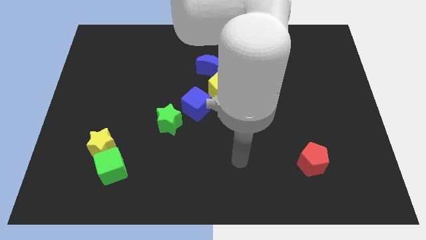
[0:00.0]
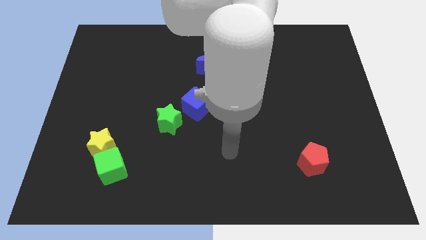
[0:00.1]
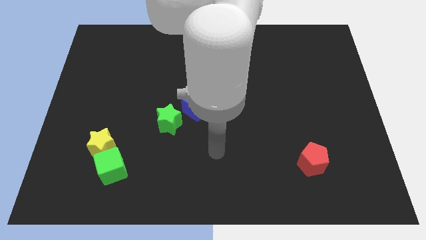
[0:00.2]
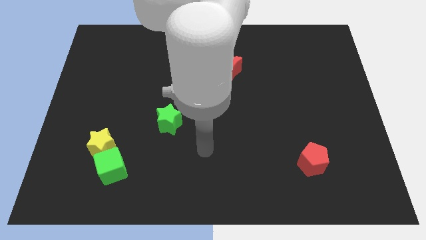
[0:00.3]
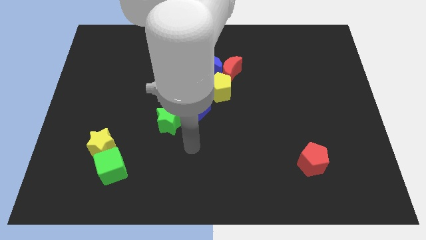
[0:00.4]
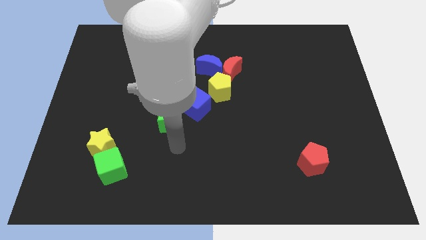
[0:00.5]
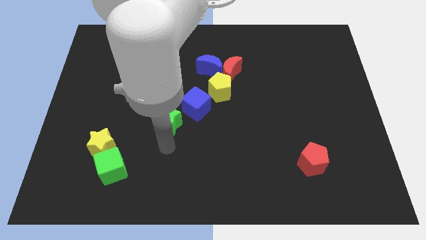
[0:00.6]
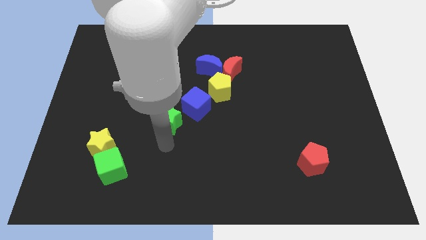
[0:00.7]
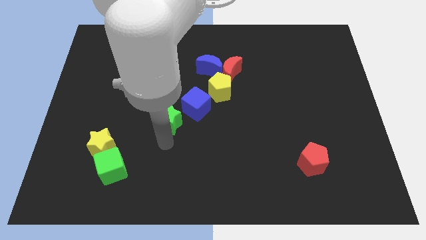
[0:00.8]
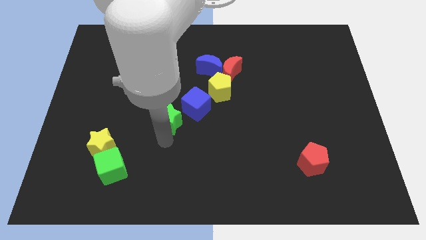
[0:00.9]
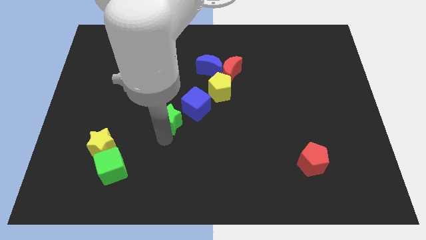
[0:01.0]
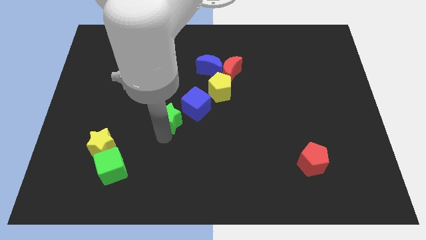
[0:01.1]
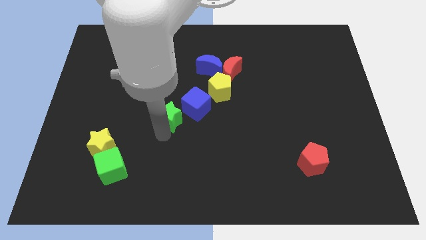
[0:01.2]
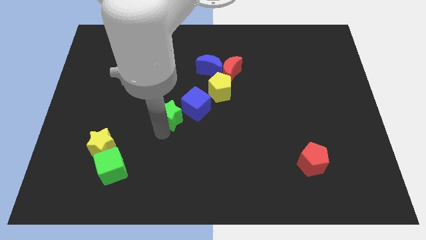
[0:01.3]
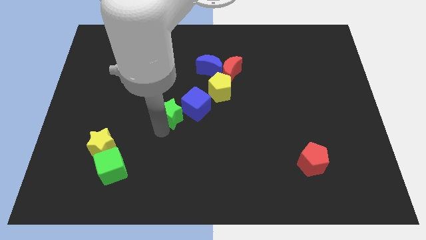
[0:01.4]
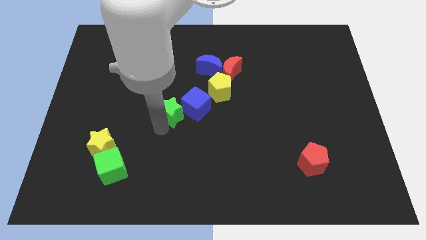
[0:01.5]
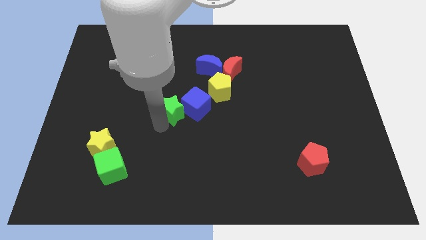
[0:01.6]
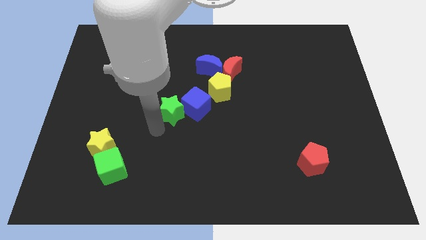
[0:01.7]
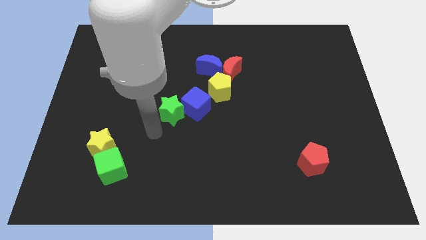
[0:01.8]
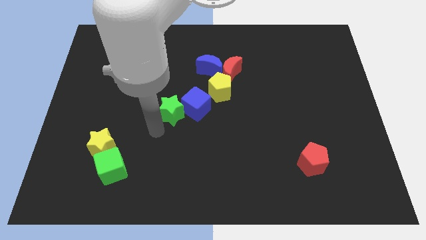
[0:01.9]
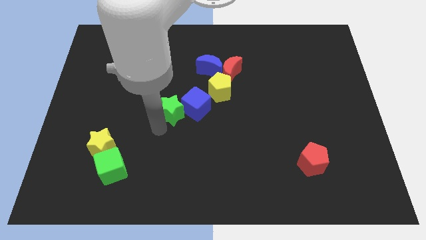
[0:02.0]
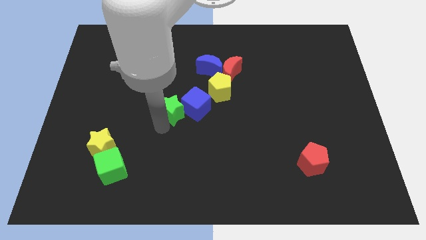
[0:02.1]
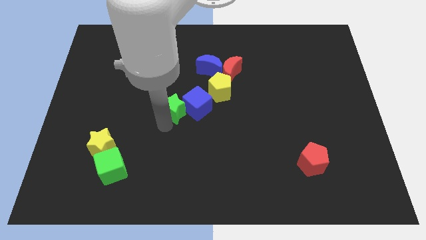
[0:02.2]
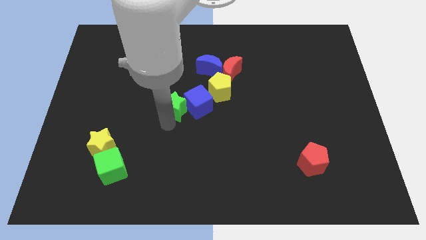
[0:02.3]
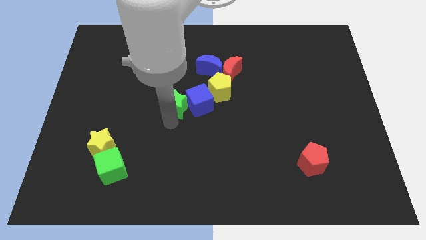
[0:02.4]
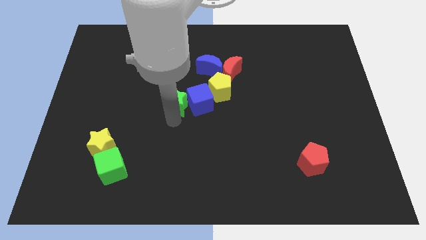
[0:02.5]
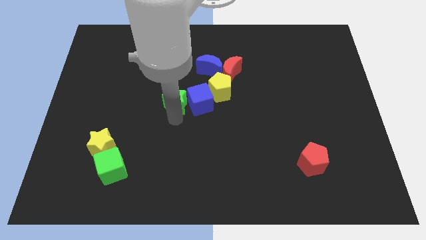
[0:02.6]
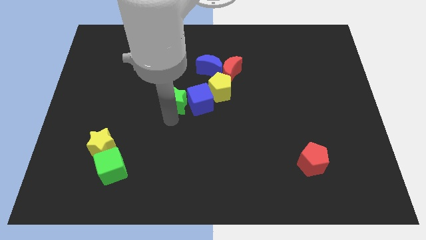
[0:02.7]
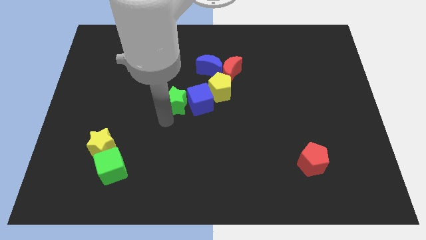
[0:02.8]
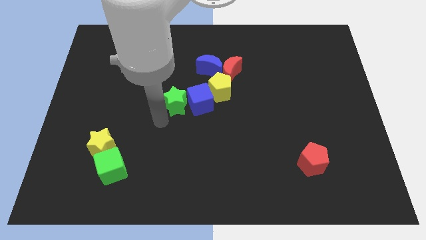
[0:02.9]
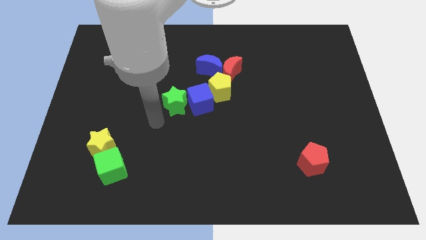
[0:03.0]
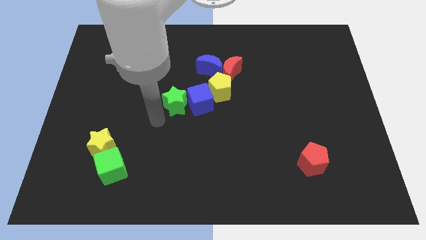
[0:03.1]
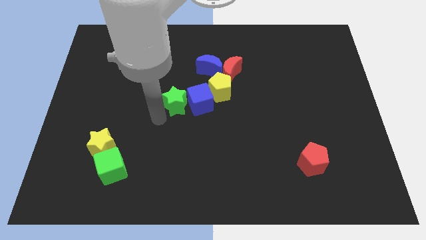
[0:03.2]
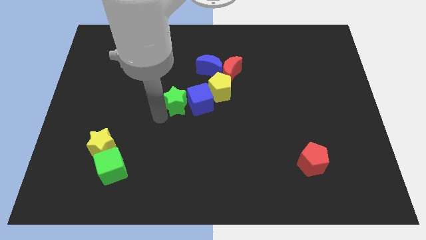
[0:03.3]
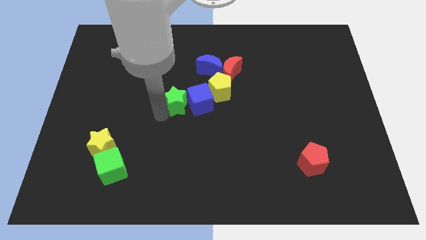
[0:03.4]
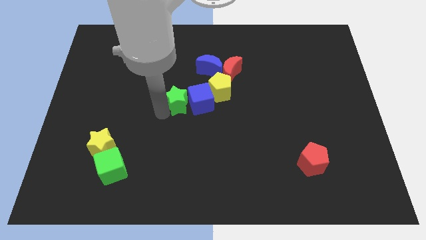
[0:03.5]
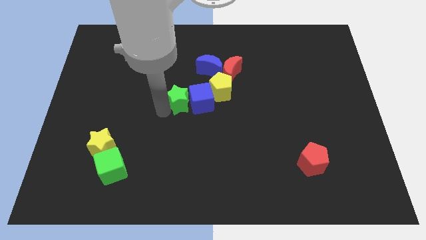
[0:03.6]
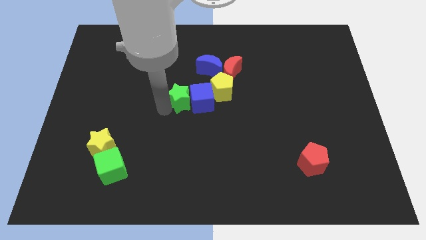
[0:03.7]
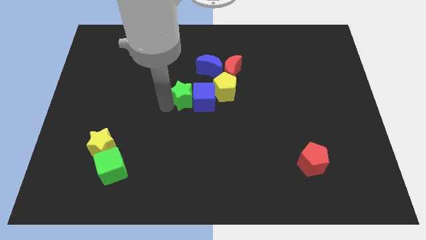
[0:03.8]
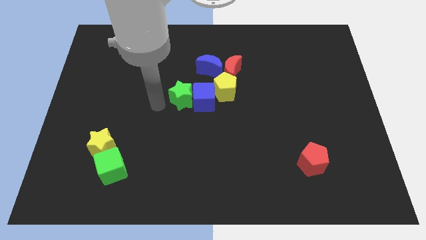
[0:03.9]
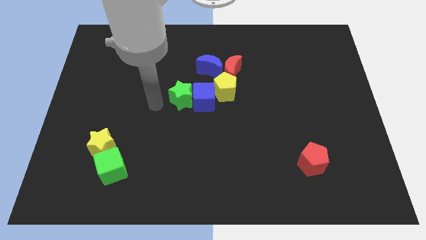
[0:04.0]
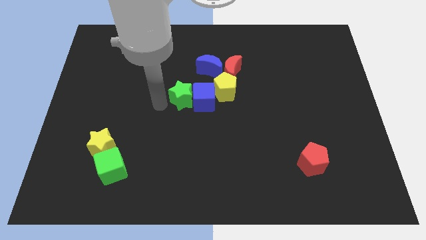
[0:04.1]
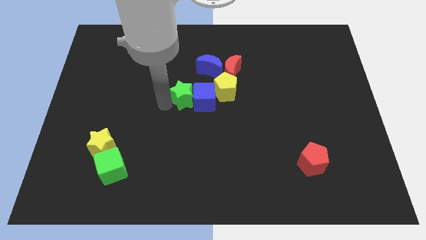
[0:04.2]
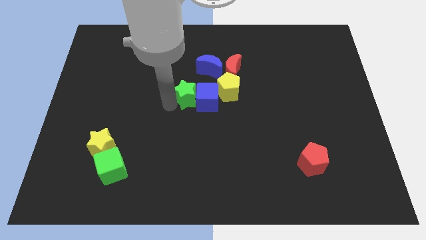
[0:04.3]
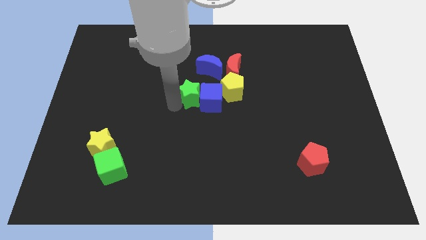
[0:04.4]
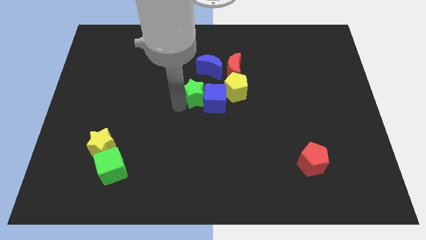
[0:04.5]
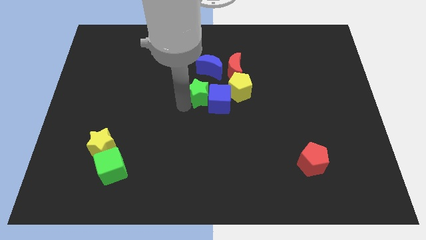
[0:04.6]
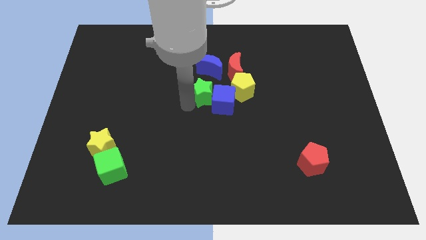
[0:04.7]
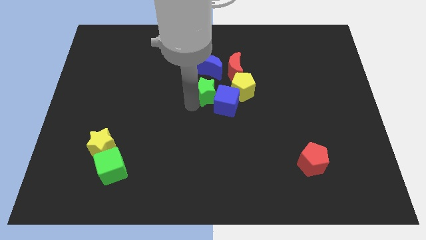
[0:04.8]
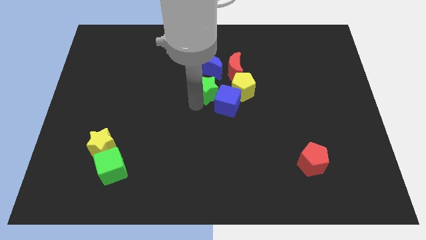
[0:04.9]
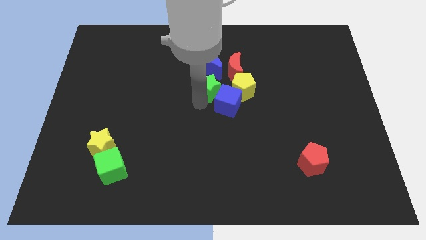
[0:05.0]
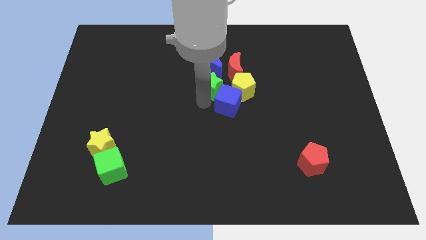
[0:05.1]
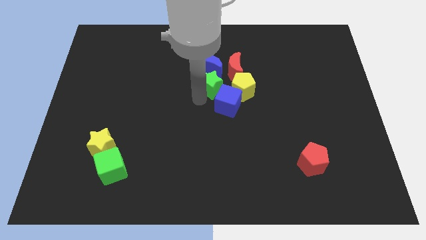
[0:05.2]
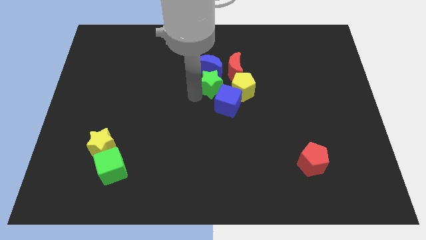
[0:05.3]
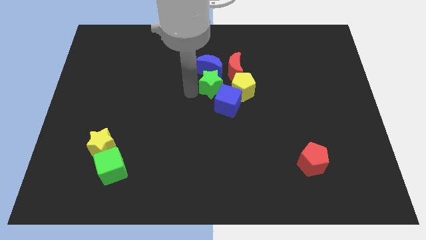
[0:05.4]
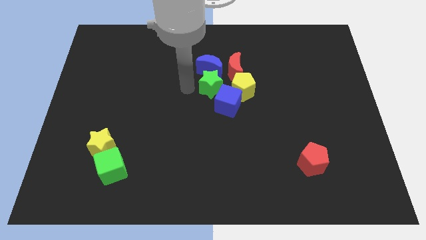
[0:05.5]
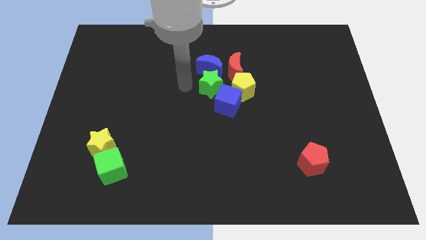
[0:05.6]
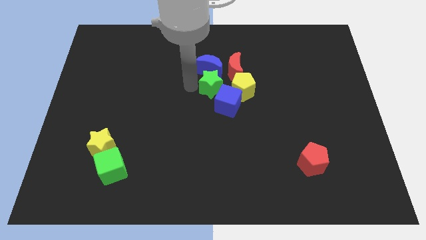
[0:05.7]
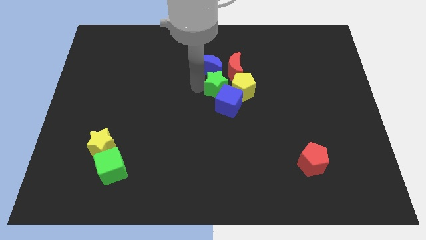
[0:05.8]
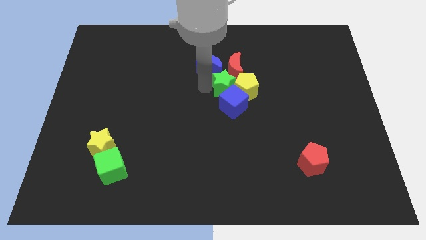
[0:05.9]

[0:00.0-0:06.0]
put the green star close to the yellow pentagon

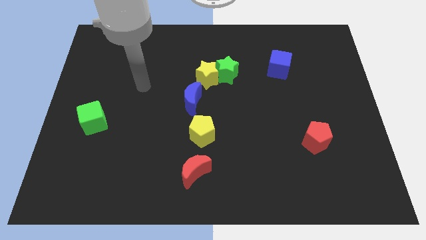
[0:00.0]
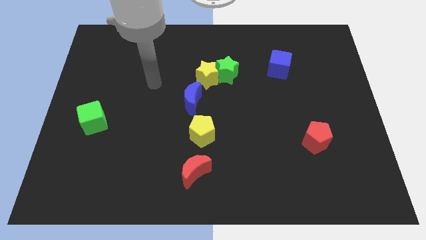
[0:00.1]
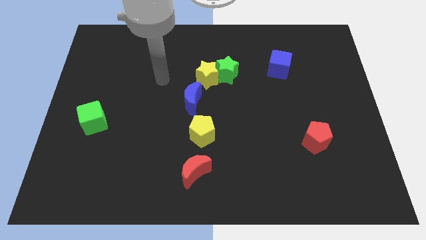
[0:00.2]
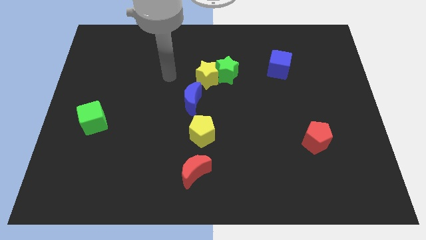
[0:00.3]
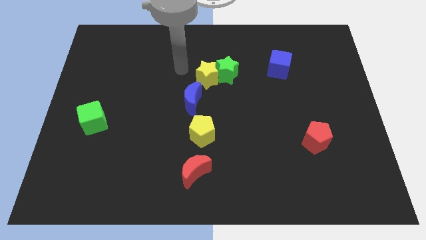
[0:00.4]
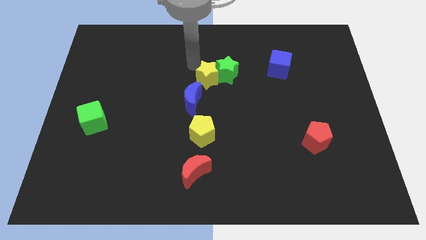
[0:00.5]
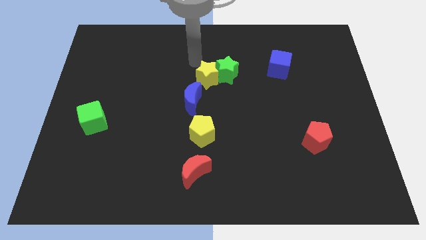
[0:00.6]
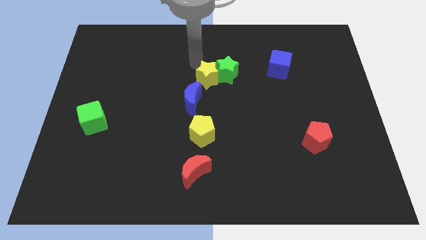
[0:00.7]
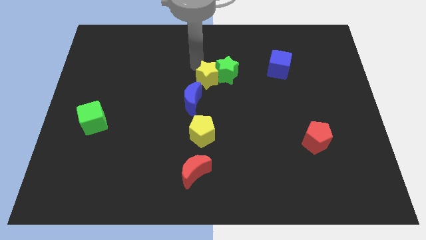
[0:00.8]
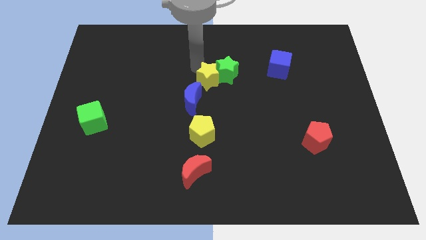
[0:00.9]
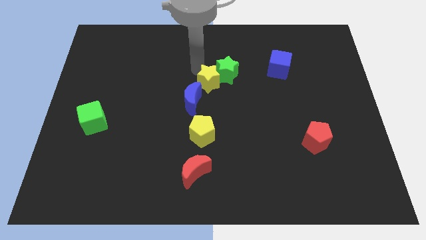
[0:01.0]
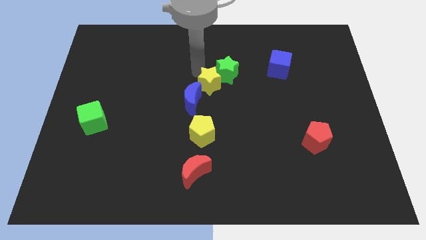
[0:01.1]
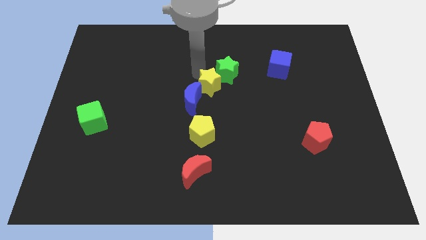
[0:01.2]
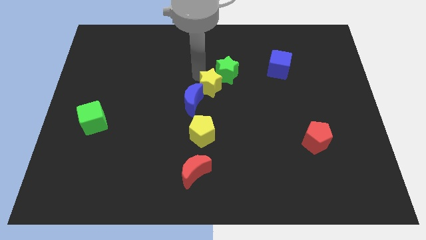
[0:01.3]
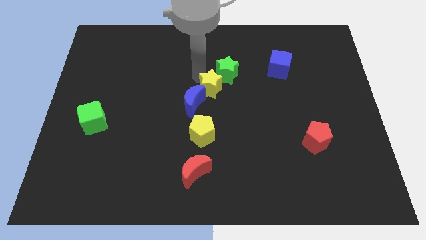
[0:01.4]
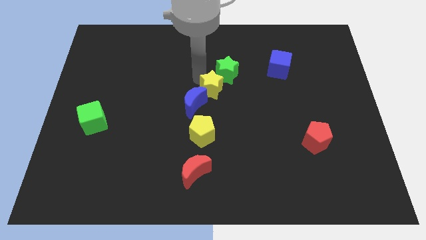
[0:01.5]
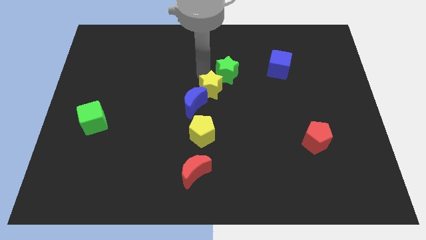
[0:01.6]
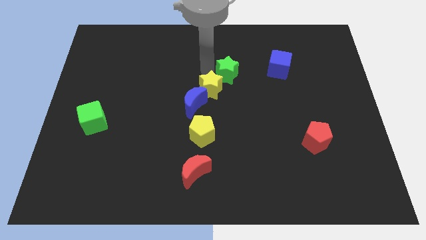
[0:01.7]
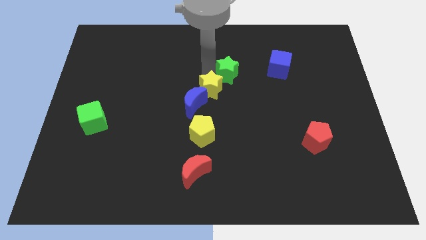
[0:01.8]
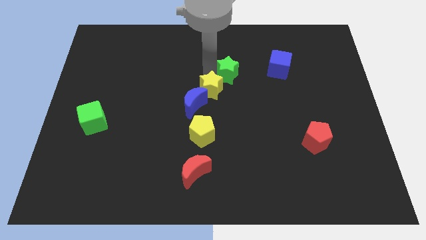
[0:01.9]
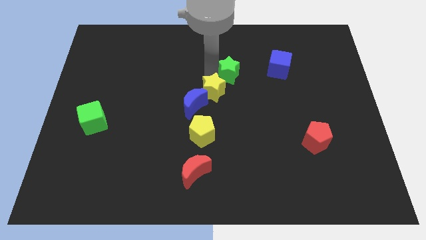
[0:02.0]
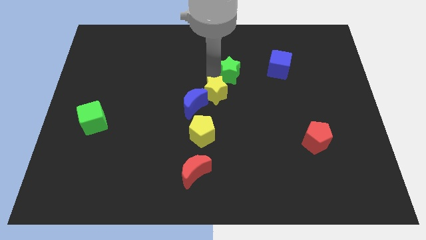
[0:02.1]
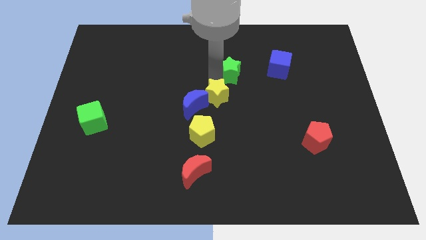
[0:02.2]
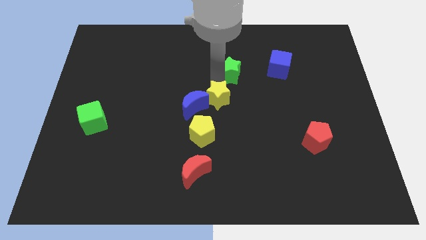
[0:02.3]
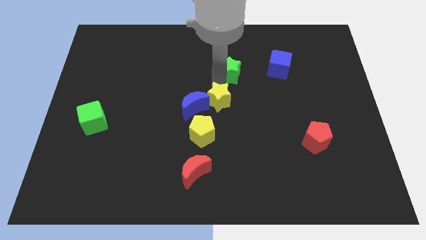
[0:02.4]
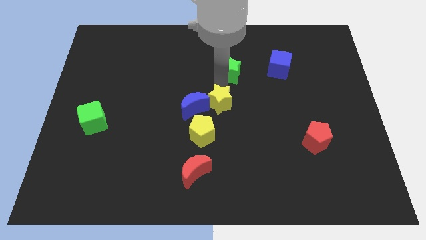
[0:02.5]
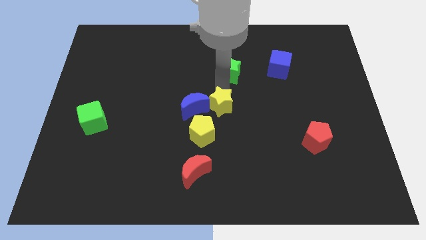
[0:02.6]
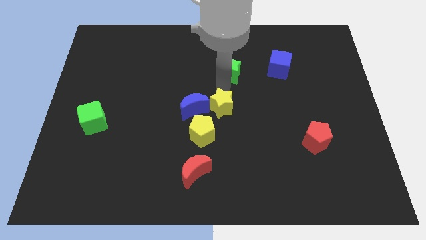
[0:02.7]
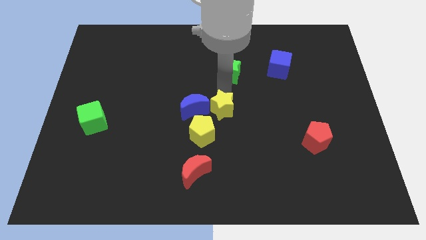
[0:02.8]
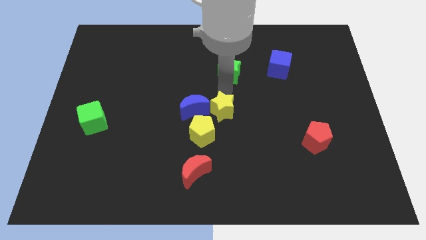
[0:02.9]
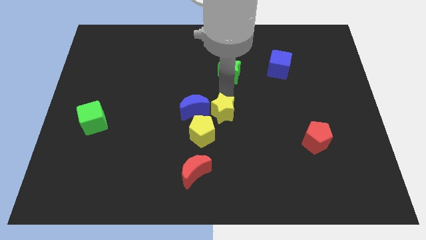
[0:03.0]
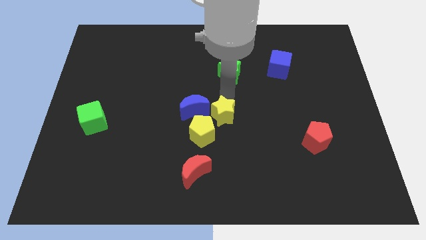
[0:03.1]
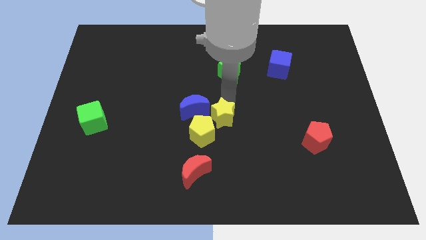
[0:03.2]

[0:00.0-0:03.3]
push the yellow star next to the yellow pentagon
